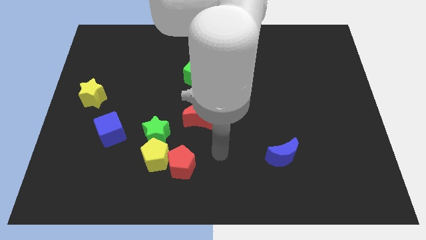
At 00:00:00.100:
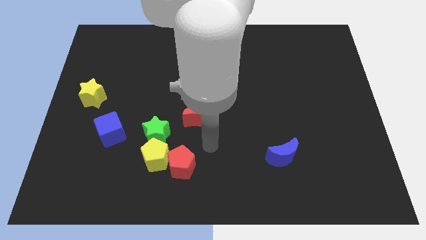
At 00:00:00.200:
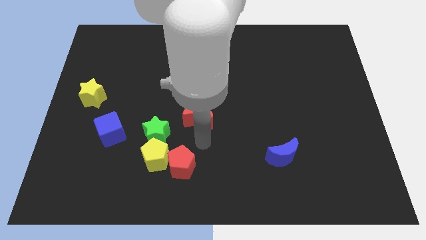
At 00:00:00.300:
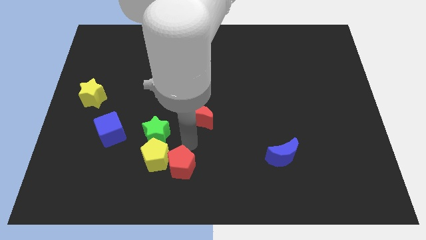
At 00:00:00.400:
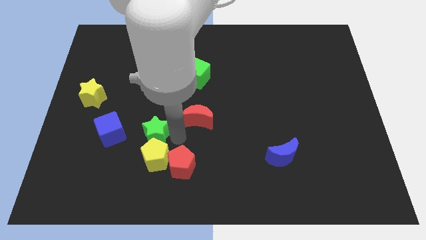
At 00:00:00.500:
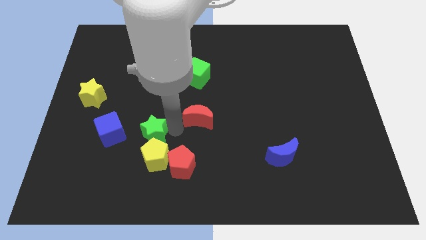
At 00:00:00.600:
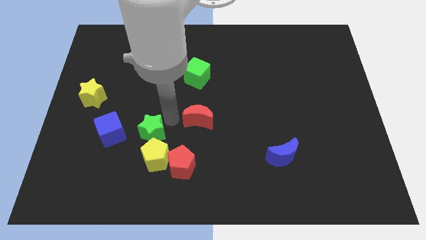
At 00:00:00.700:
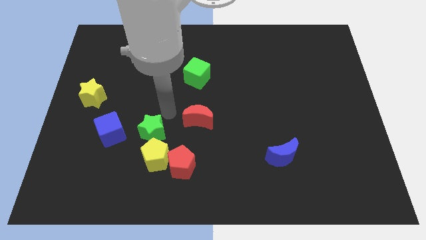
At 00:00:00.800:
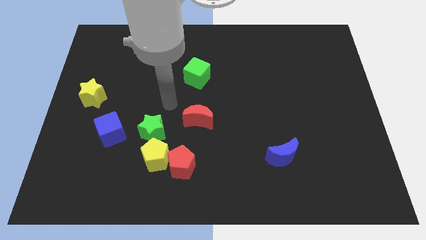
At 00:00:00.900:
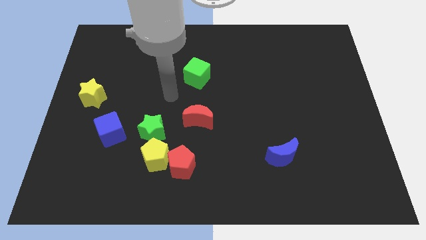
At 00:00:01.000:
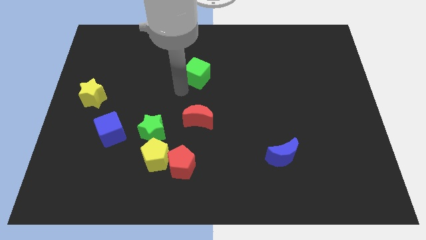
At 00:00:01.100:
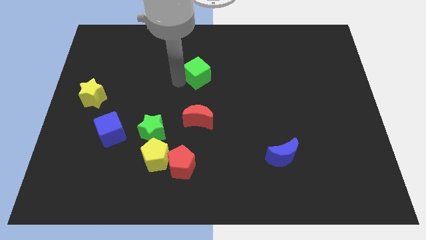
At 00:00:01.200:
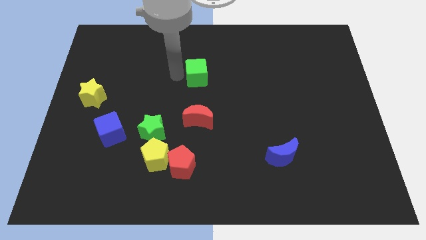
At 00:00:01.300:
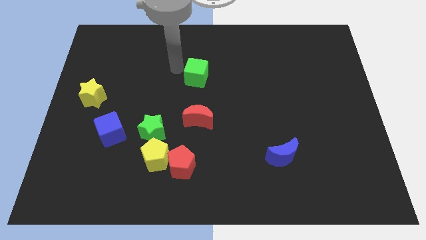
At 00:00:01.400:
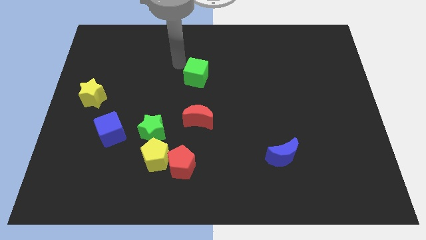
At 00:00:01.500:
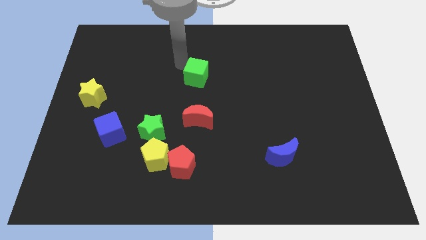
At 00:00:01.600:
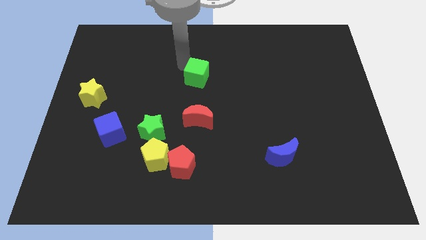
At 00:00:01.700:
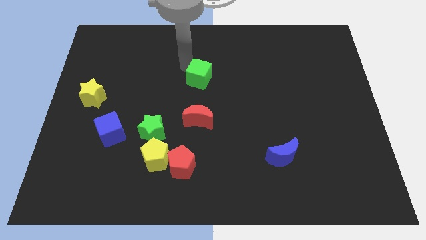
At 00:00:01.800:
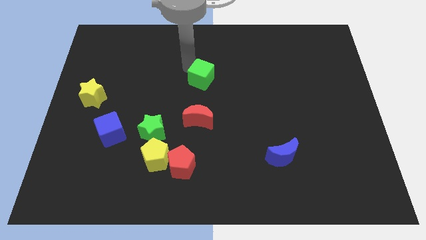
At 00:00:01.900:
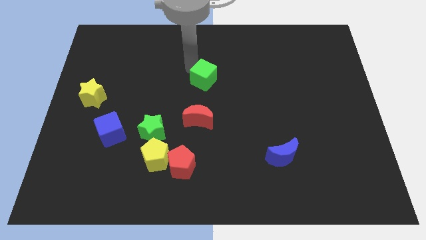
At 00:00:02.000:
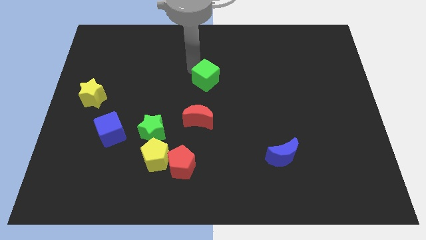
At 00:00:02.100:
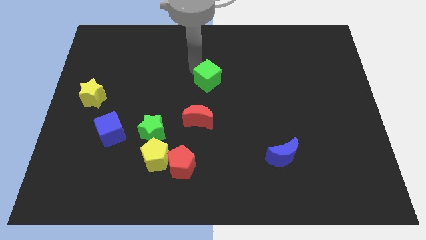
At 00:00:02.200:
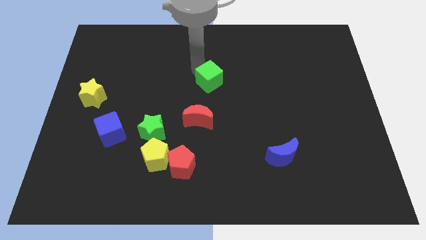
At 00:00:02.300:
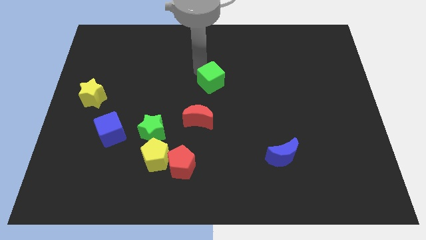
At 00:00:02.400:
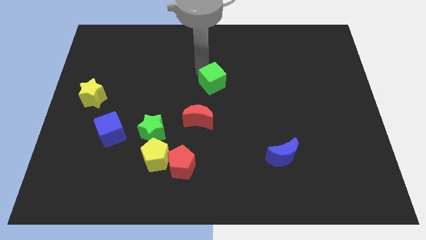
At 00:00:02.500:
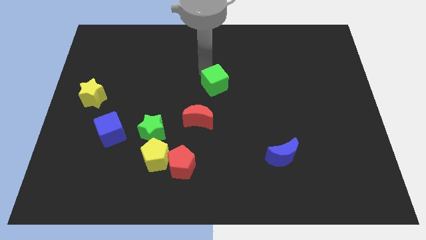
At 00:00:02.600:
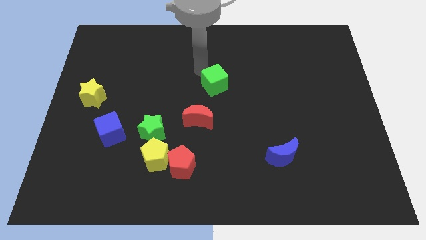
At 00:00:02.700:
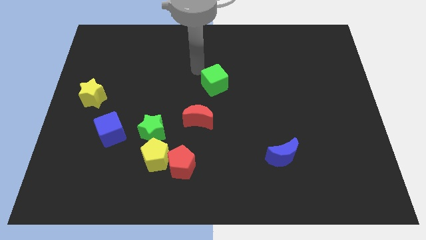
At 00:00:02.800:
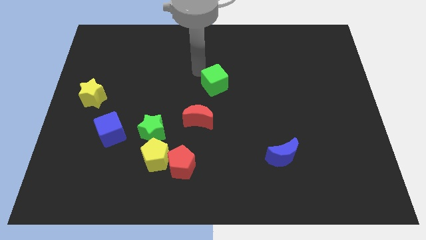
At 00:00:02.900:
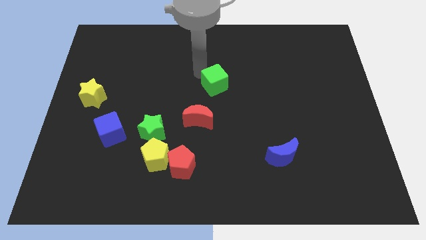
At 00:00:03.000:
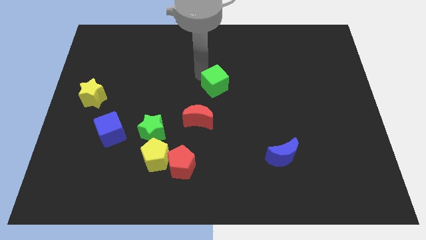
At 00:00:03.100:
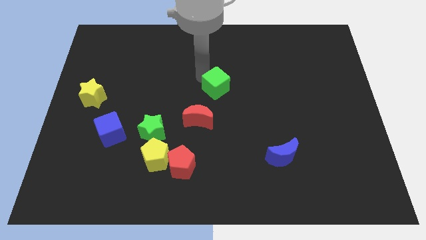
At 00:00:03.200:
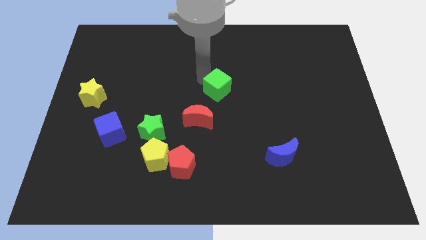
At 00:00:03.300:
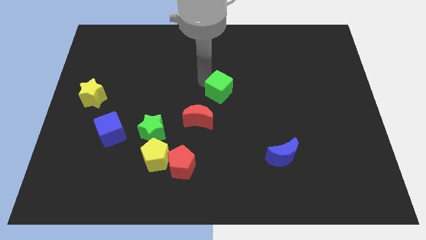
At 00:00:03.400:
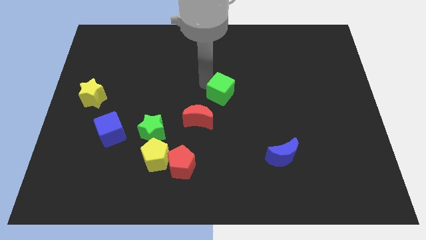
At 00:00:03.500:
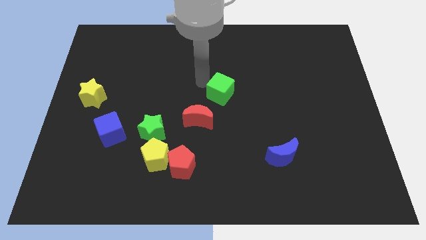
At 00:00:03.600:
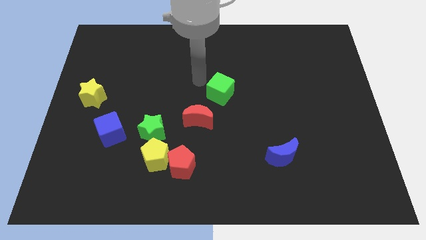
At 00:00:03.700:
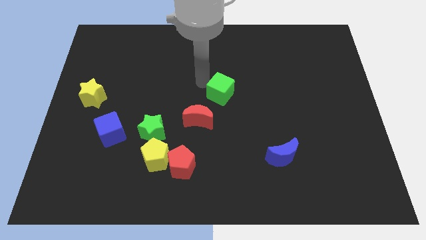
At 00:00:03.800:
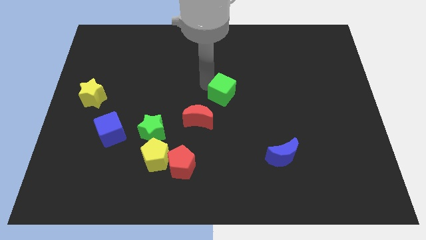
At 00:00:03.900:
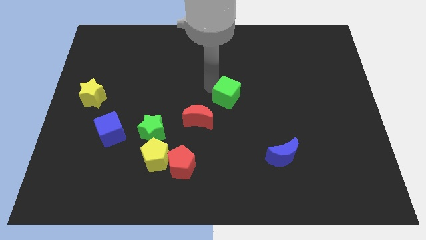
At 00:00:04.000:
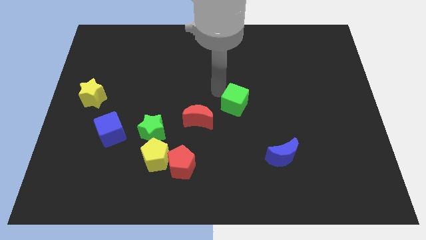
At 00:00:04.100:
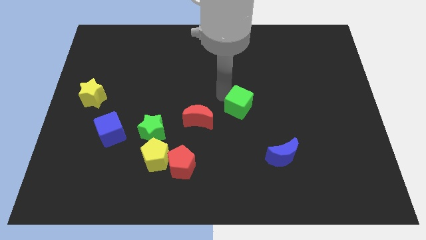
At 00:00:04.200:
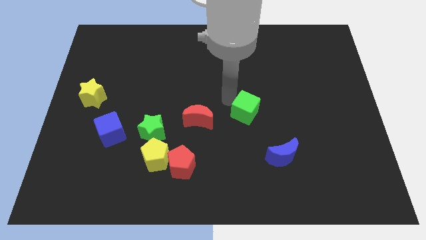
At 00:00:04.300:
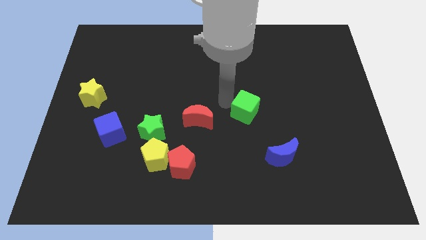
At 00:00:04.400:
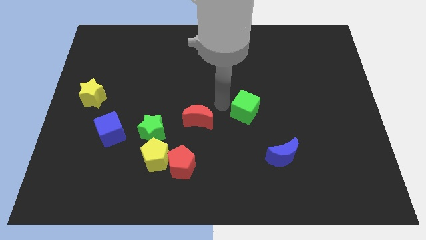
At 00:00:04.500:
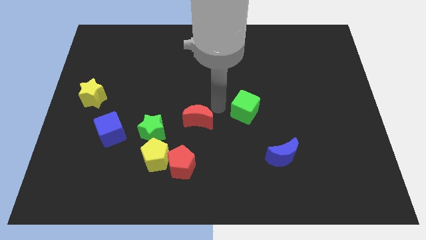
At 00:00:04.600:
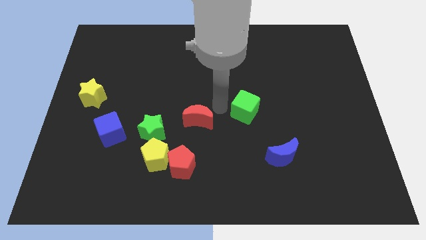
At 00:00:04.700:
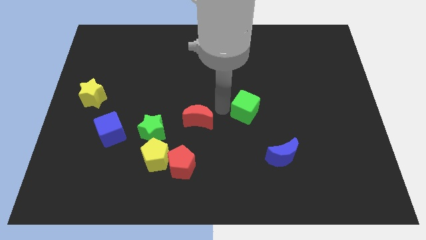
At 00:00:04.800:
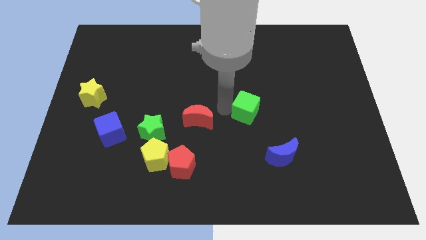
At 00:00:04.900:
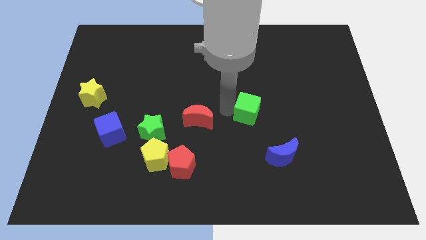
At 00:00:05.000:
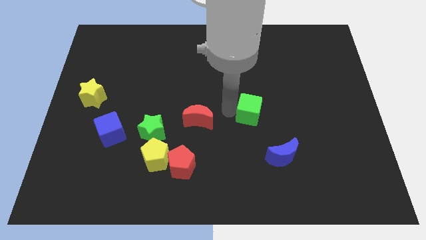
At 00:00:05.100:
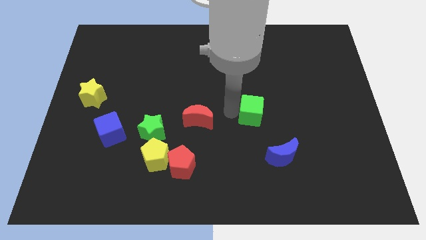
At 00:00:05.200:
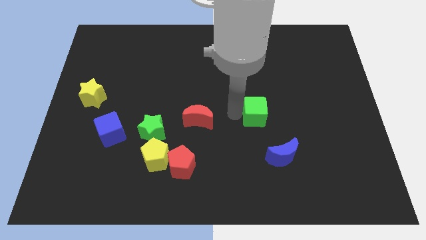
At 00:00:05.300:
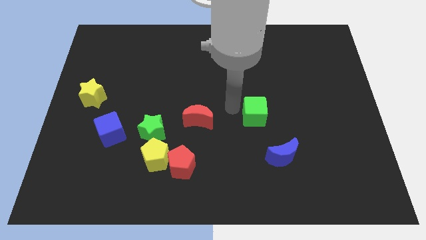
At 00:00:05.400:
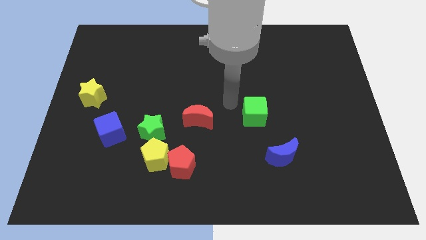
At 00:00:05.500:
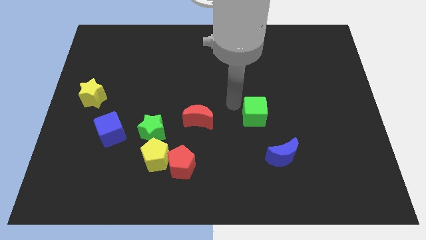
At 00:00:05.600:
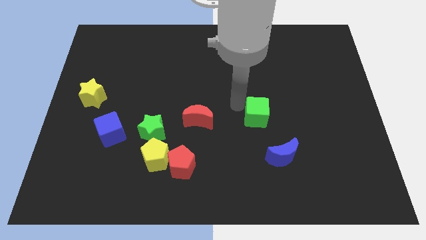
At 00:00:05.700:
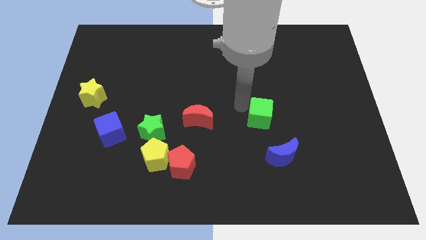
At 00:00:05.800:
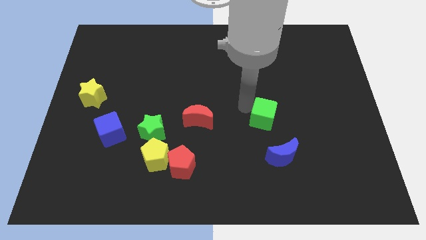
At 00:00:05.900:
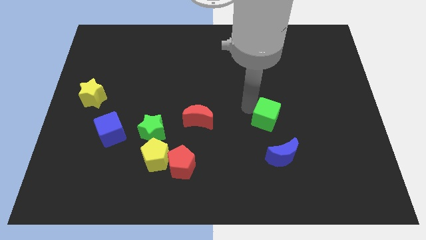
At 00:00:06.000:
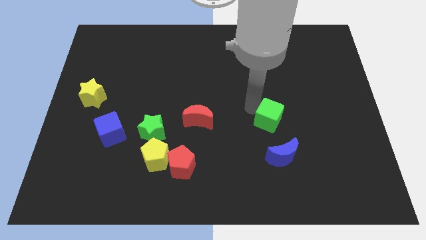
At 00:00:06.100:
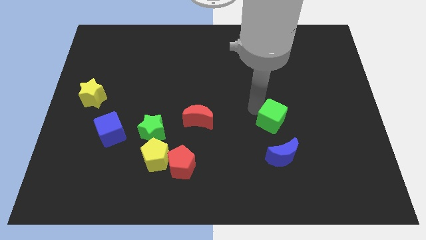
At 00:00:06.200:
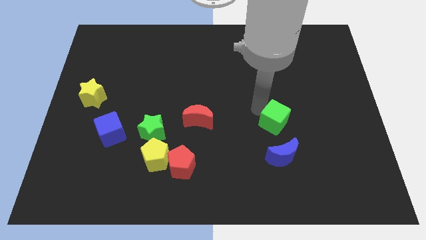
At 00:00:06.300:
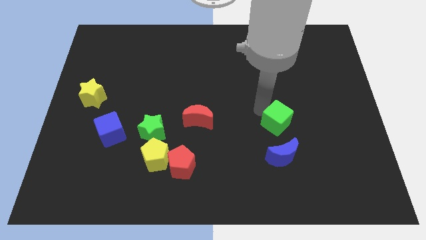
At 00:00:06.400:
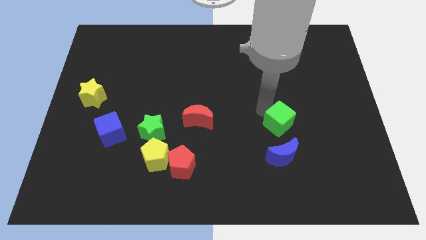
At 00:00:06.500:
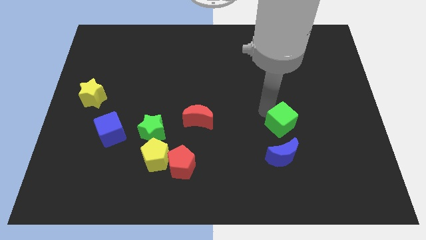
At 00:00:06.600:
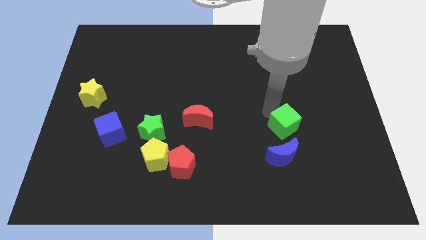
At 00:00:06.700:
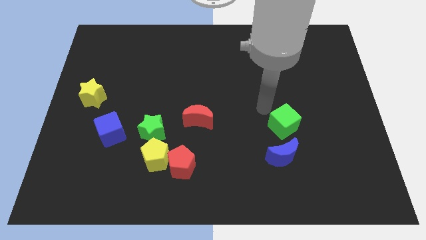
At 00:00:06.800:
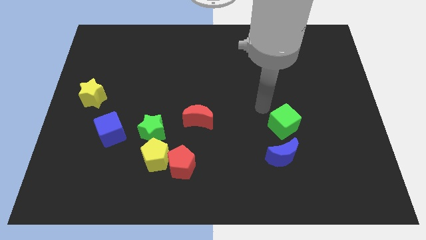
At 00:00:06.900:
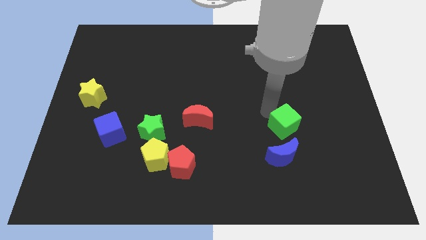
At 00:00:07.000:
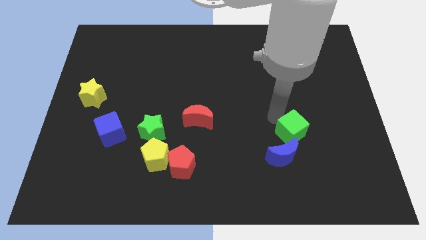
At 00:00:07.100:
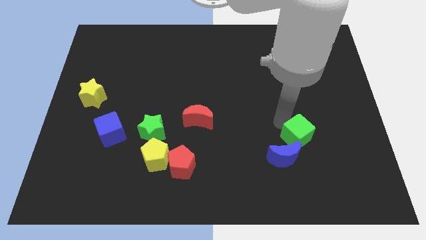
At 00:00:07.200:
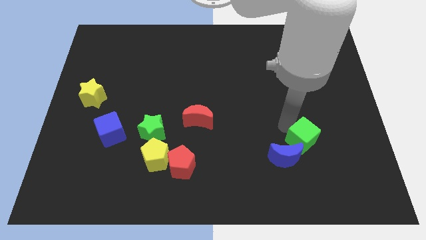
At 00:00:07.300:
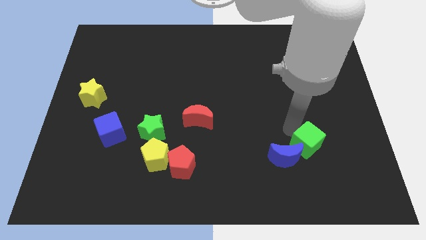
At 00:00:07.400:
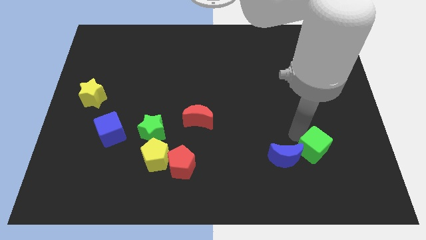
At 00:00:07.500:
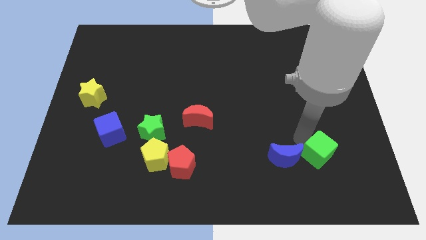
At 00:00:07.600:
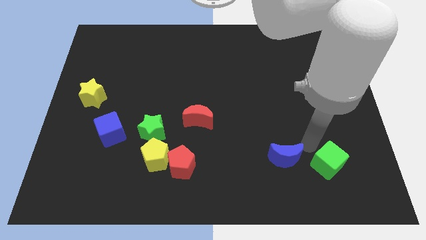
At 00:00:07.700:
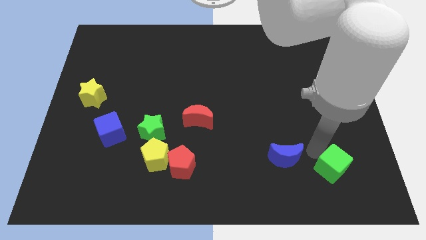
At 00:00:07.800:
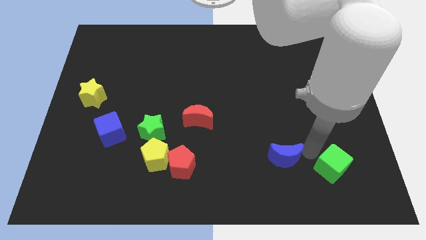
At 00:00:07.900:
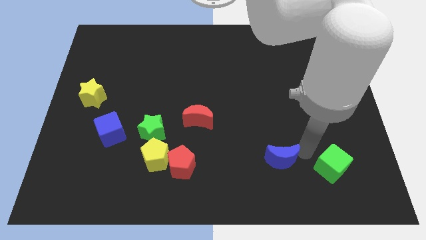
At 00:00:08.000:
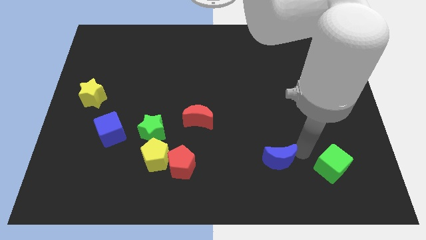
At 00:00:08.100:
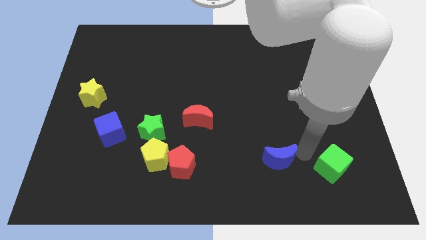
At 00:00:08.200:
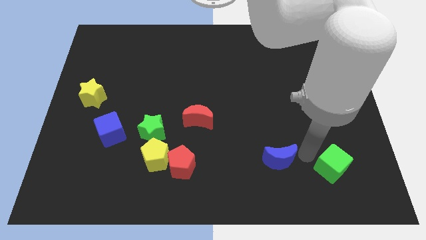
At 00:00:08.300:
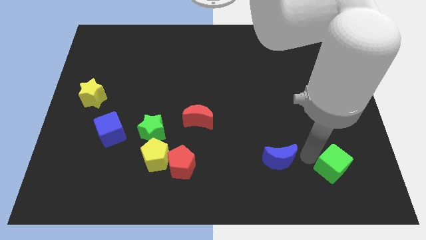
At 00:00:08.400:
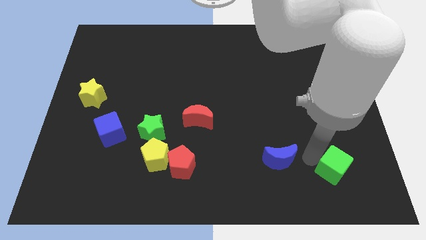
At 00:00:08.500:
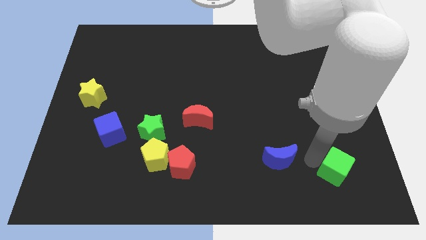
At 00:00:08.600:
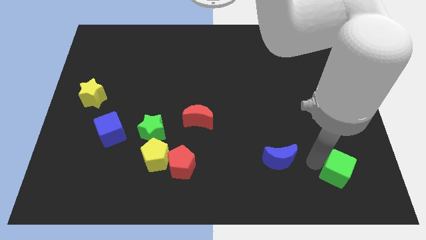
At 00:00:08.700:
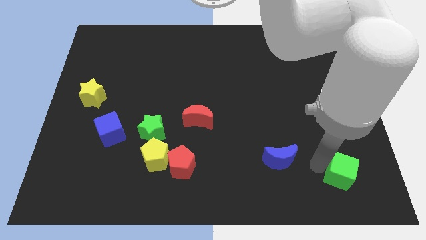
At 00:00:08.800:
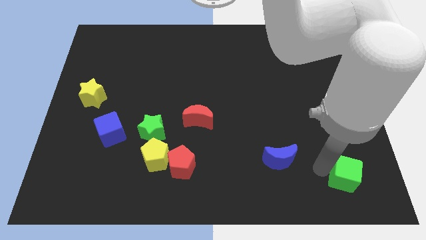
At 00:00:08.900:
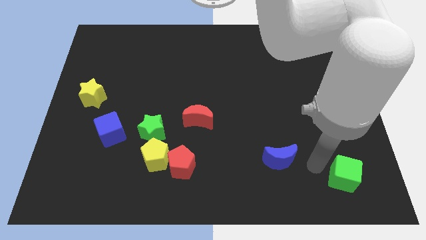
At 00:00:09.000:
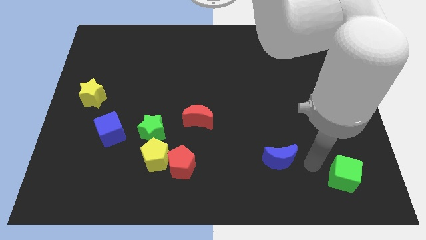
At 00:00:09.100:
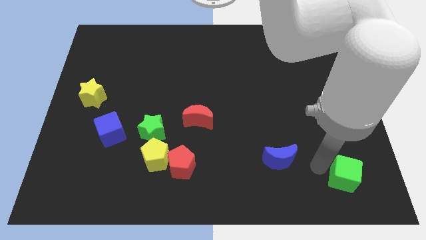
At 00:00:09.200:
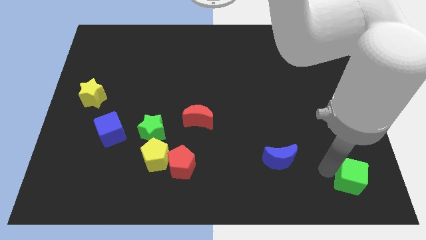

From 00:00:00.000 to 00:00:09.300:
push the green cube to the bottom right
